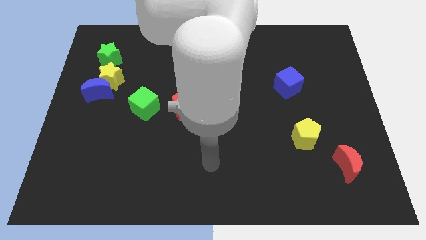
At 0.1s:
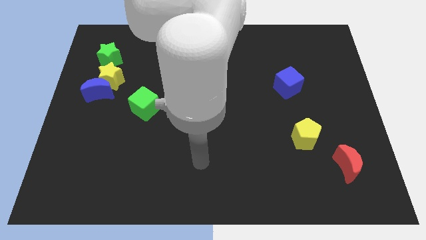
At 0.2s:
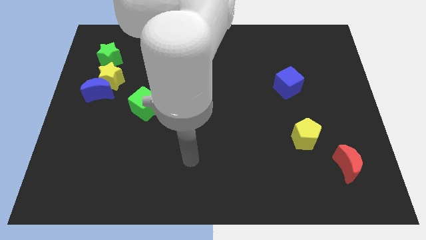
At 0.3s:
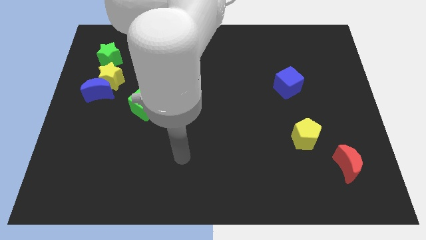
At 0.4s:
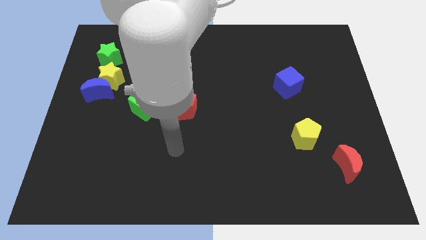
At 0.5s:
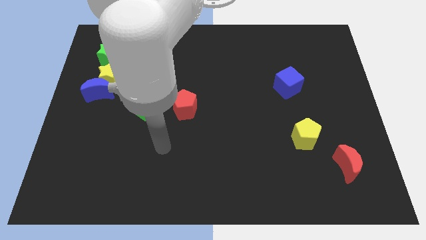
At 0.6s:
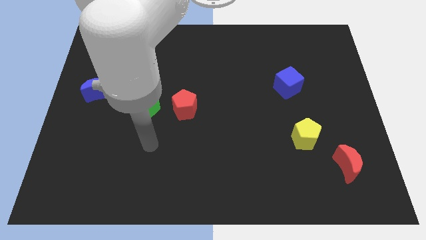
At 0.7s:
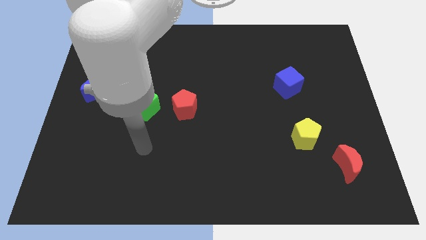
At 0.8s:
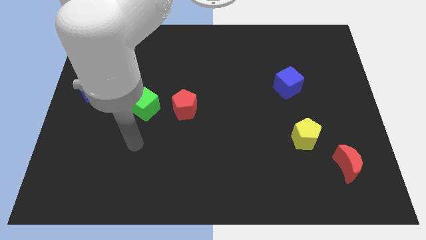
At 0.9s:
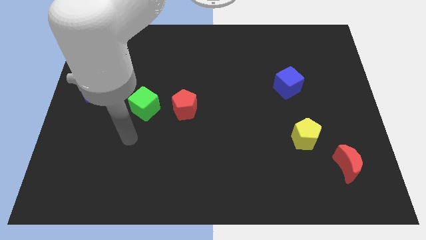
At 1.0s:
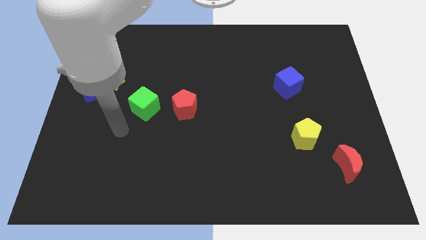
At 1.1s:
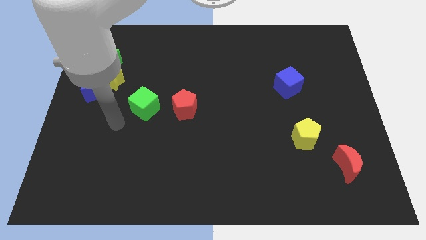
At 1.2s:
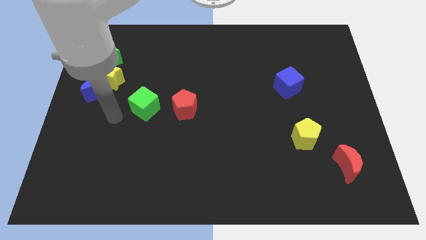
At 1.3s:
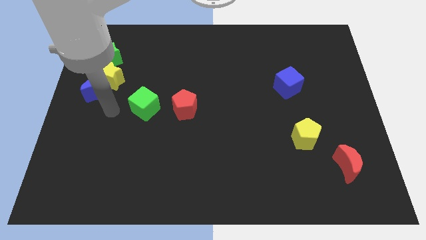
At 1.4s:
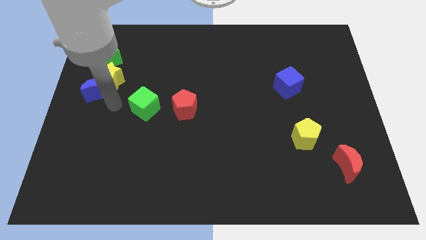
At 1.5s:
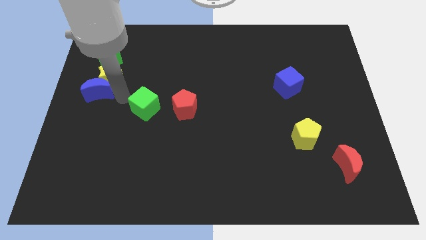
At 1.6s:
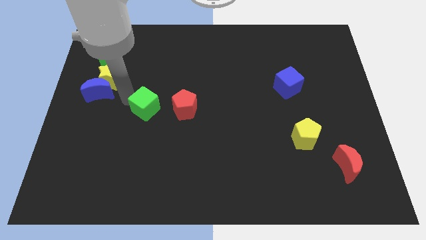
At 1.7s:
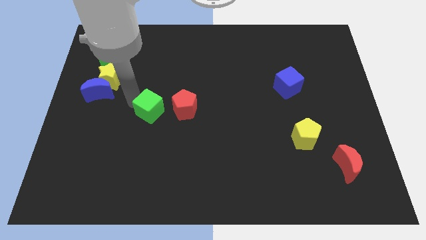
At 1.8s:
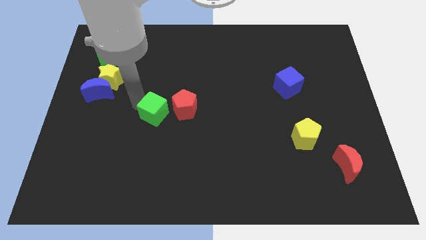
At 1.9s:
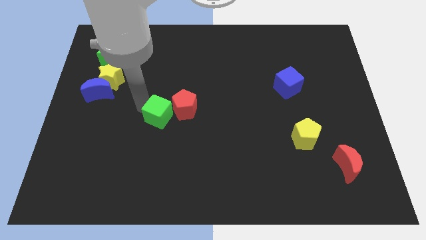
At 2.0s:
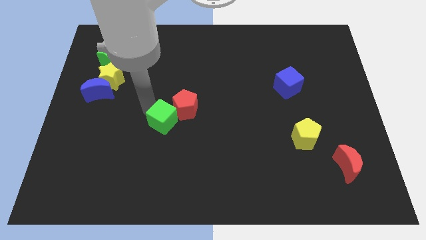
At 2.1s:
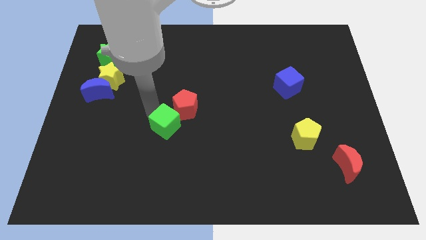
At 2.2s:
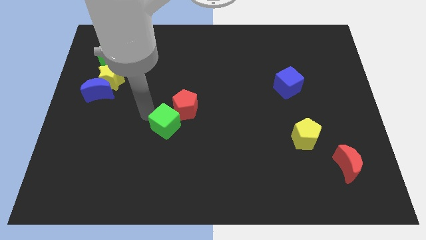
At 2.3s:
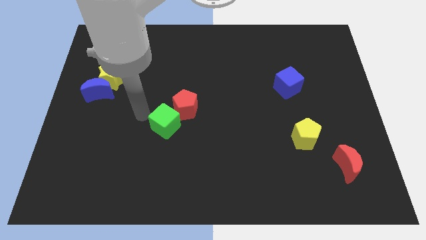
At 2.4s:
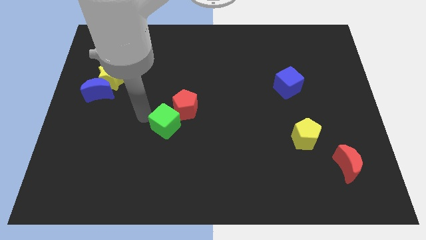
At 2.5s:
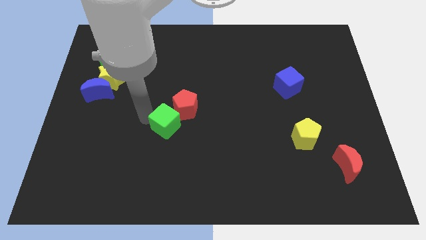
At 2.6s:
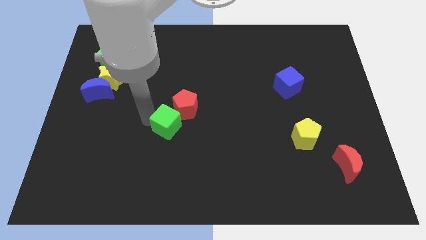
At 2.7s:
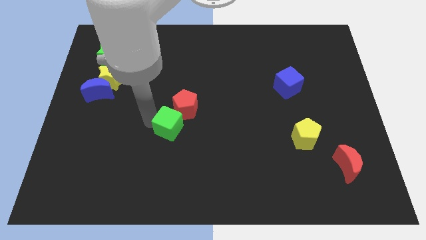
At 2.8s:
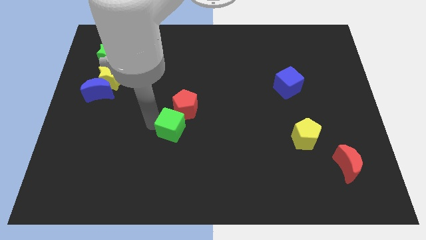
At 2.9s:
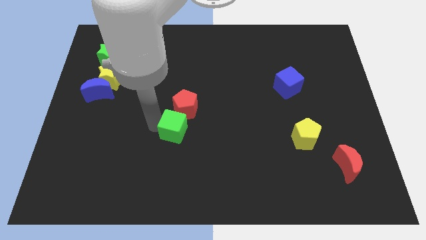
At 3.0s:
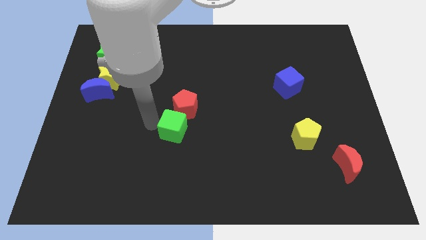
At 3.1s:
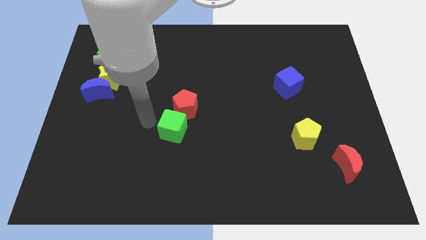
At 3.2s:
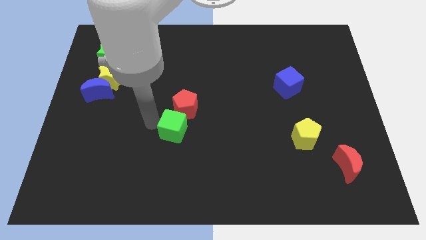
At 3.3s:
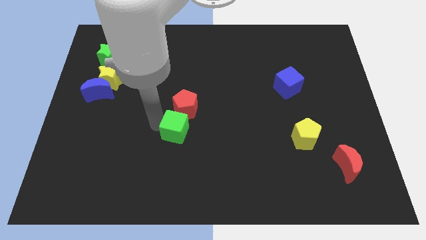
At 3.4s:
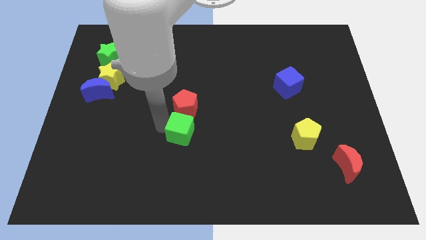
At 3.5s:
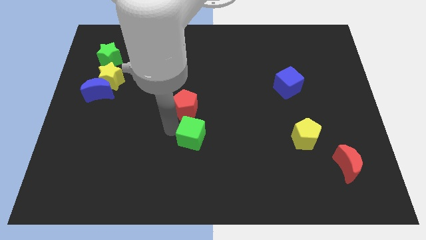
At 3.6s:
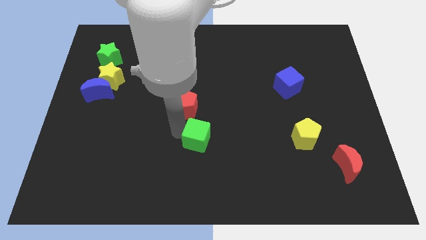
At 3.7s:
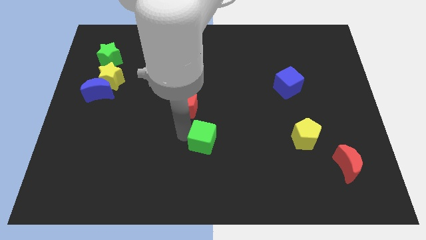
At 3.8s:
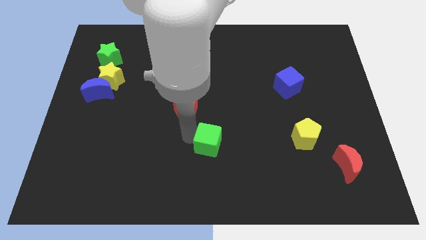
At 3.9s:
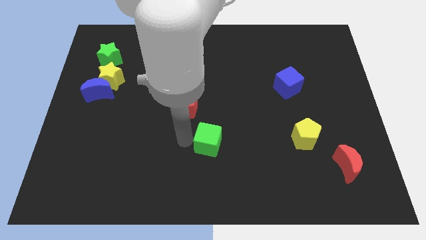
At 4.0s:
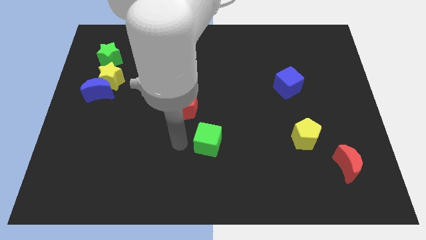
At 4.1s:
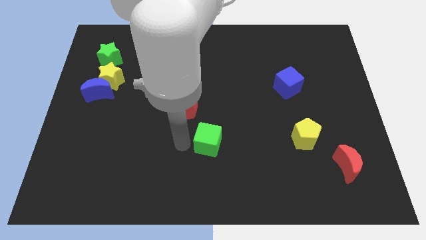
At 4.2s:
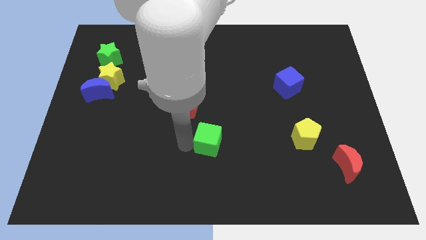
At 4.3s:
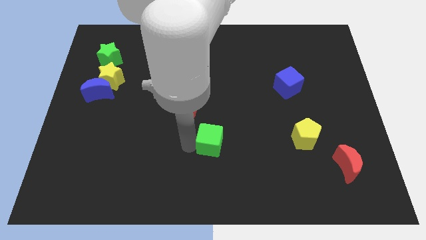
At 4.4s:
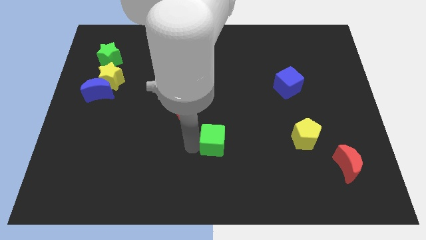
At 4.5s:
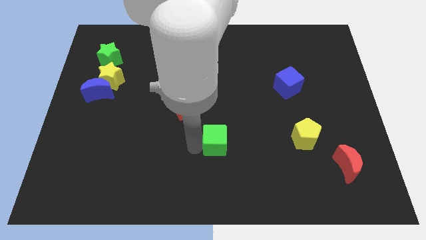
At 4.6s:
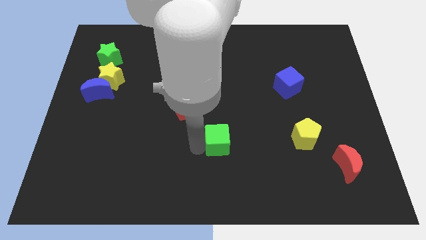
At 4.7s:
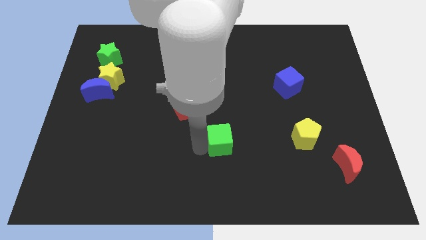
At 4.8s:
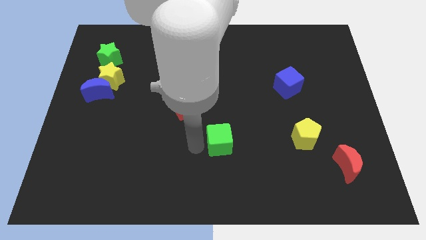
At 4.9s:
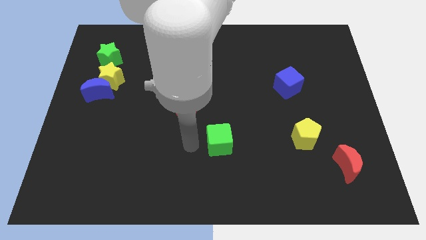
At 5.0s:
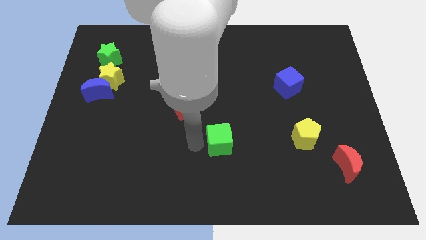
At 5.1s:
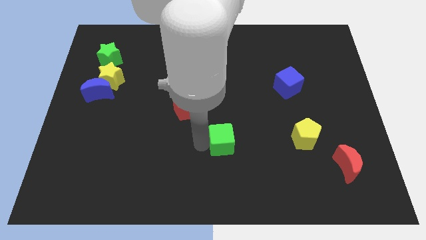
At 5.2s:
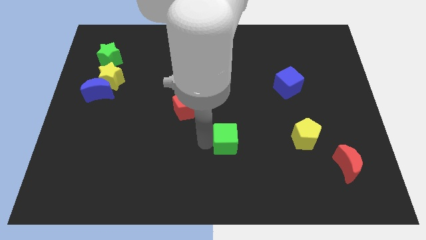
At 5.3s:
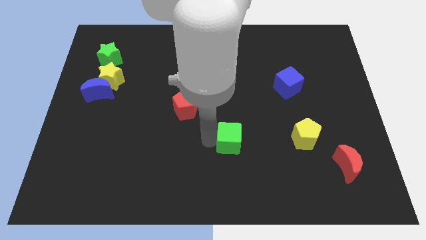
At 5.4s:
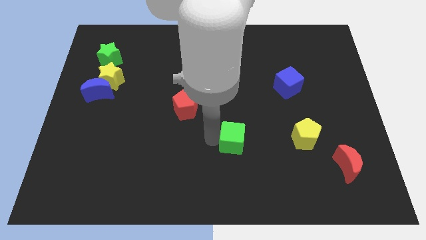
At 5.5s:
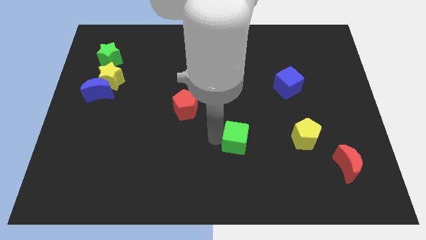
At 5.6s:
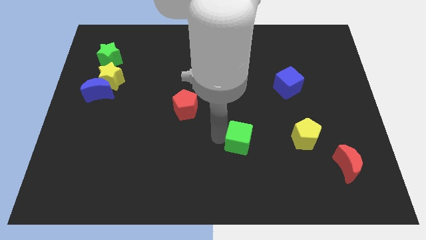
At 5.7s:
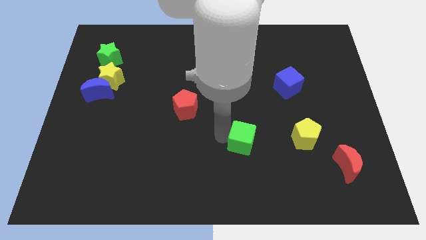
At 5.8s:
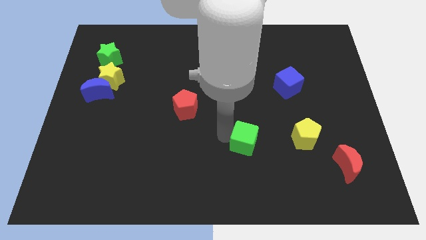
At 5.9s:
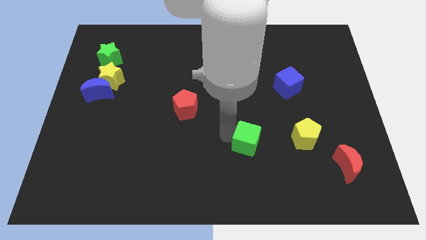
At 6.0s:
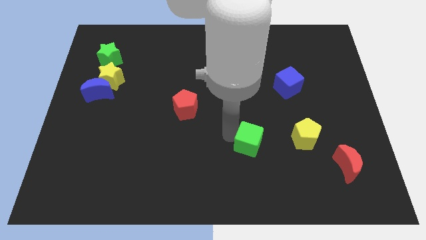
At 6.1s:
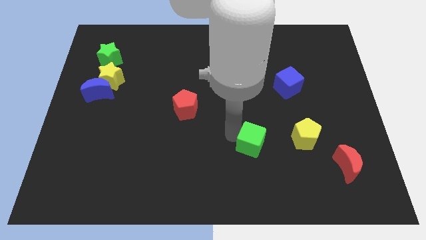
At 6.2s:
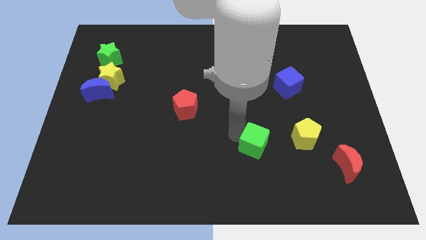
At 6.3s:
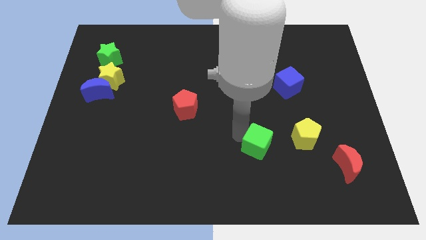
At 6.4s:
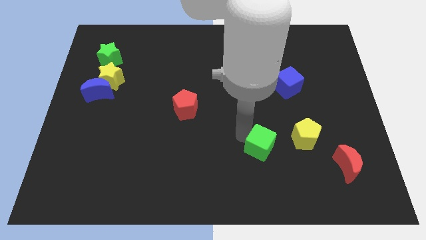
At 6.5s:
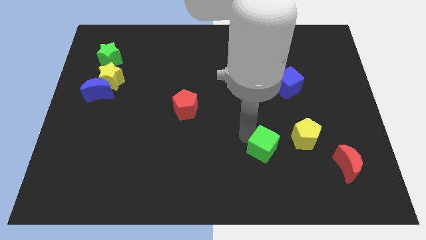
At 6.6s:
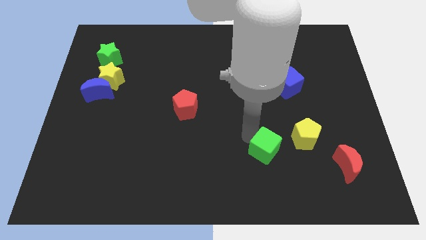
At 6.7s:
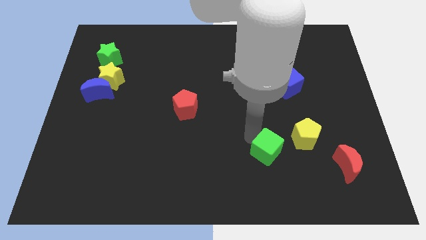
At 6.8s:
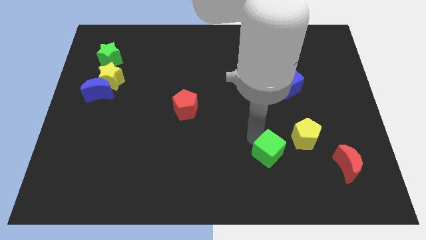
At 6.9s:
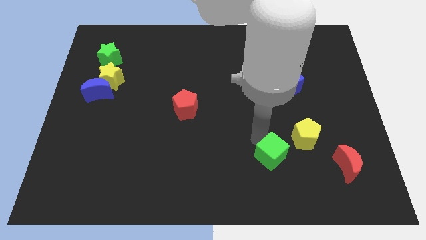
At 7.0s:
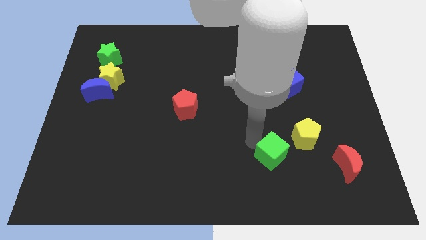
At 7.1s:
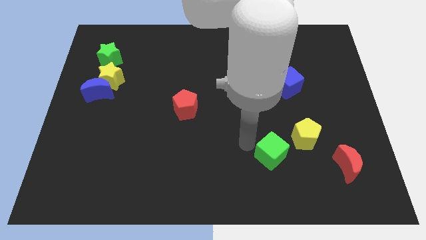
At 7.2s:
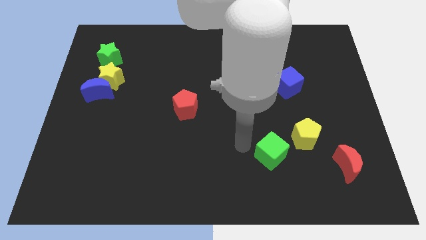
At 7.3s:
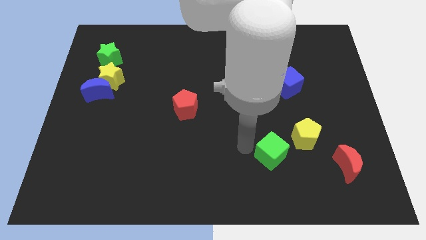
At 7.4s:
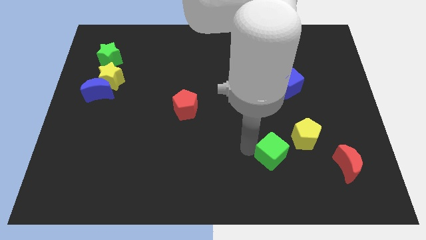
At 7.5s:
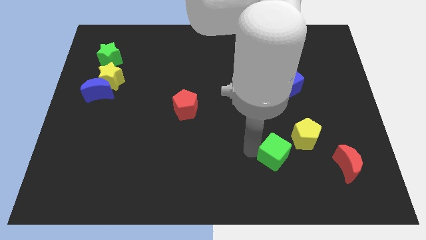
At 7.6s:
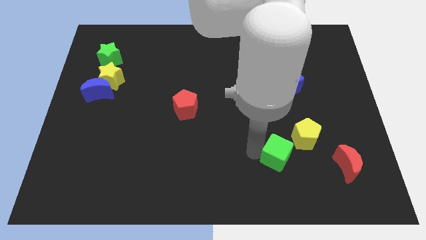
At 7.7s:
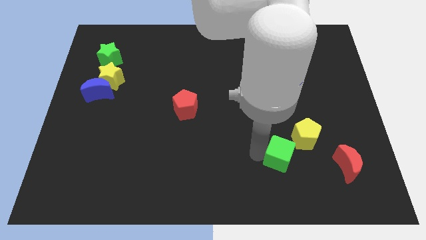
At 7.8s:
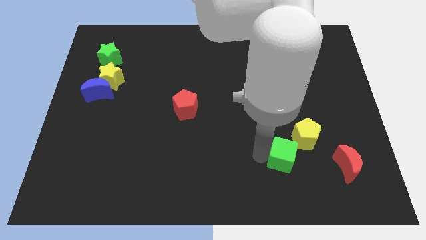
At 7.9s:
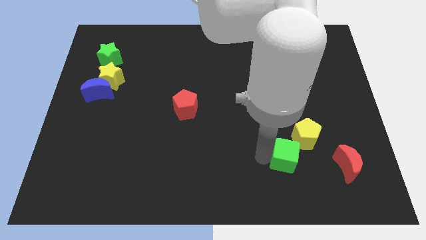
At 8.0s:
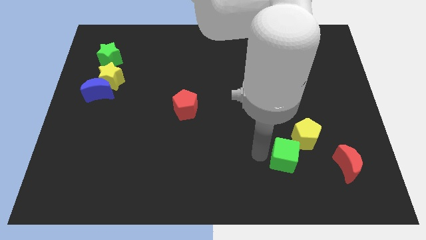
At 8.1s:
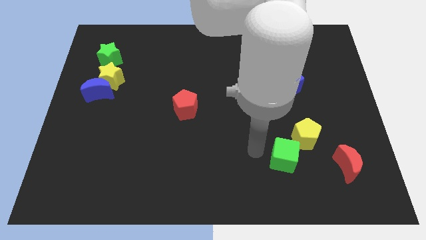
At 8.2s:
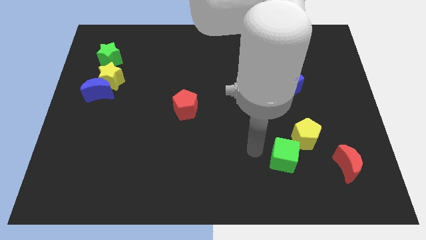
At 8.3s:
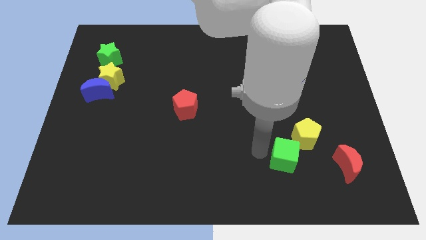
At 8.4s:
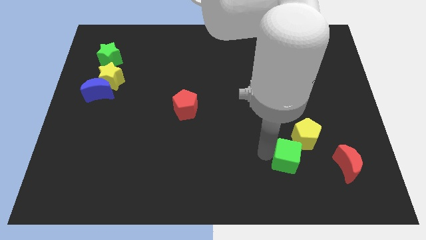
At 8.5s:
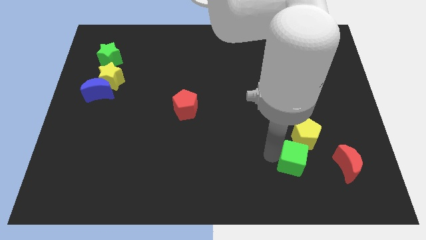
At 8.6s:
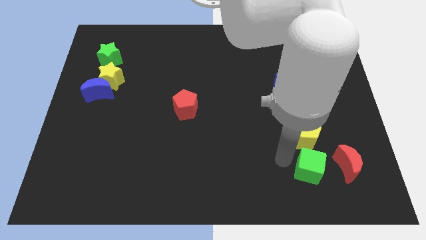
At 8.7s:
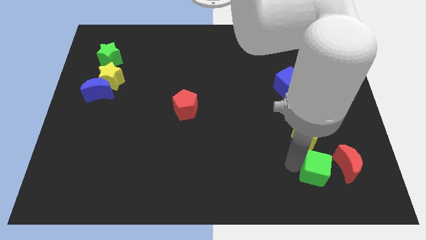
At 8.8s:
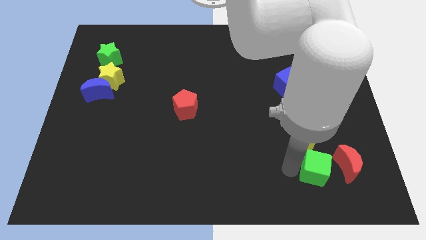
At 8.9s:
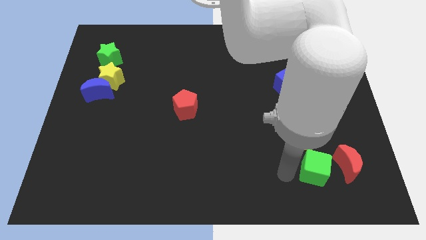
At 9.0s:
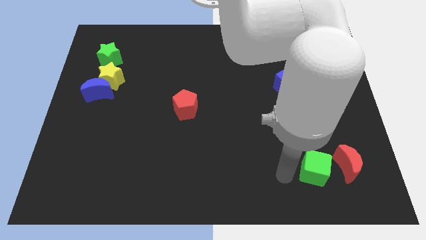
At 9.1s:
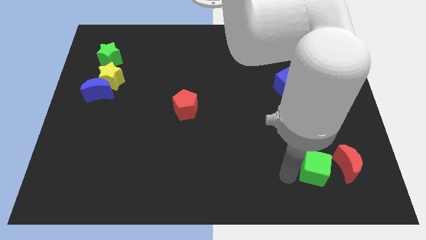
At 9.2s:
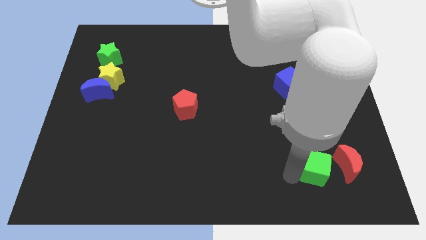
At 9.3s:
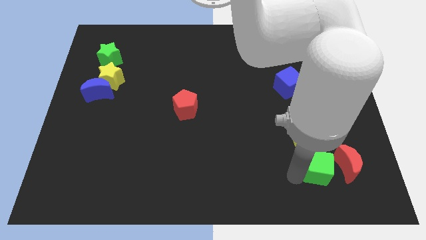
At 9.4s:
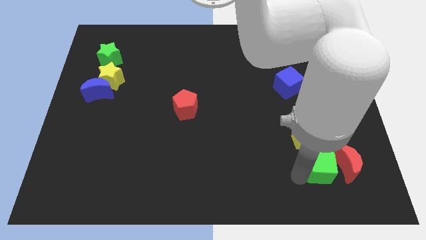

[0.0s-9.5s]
move the green cube to the red moon
